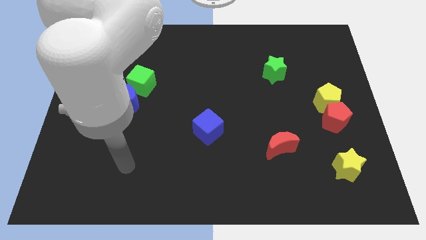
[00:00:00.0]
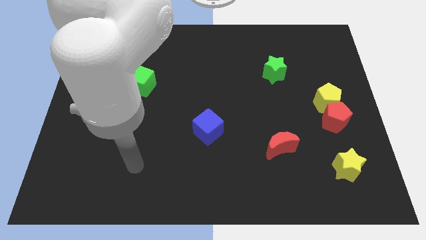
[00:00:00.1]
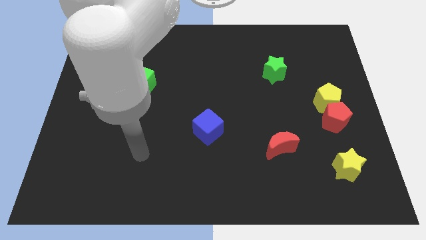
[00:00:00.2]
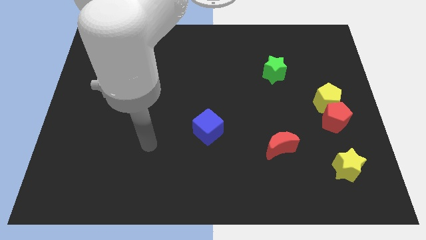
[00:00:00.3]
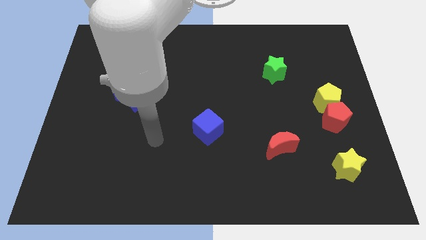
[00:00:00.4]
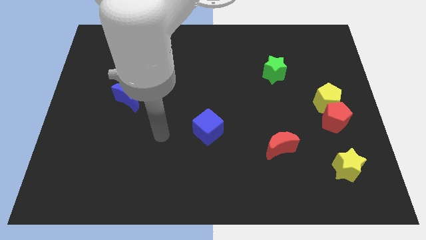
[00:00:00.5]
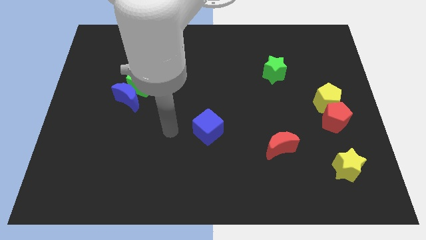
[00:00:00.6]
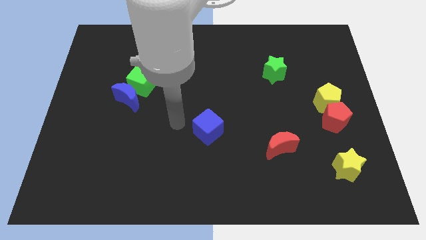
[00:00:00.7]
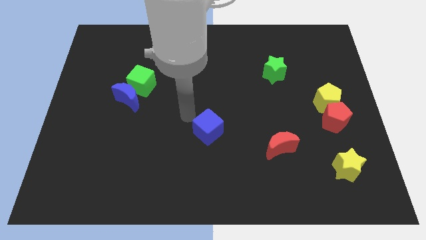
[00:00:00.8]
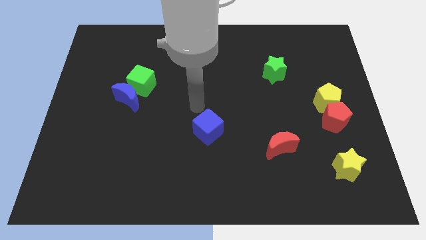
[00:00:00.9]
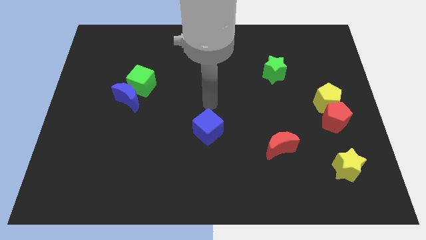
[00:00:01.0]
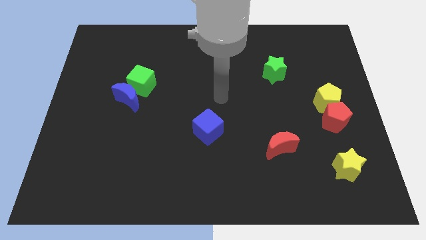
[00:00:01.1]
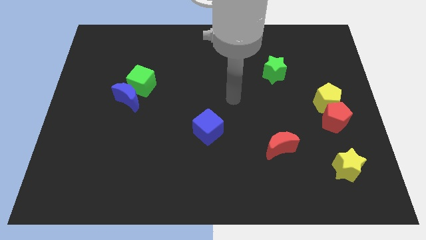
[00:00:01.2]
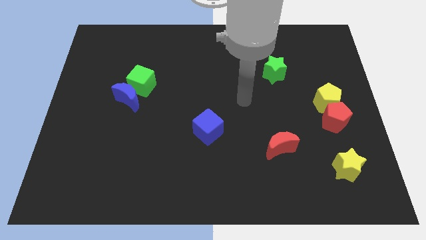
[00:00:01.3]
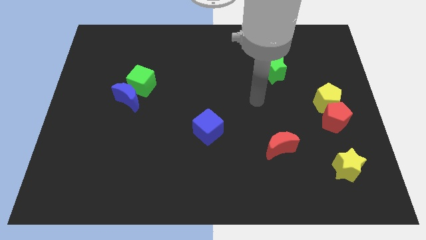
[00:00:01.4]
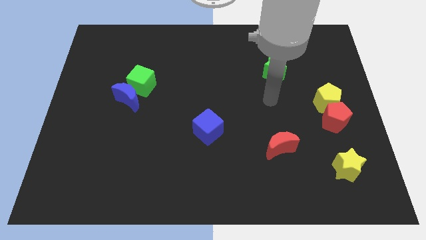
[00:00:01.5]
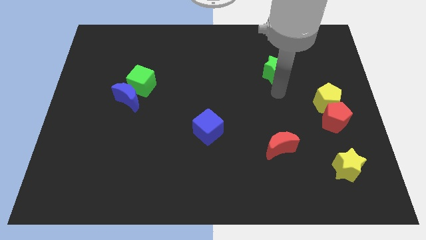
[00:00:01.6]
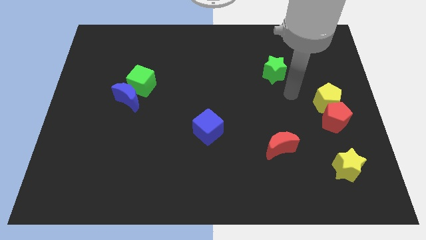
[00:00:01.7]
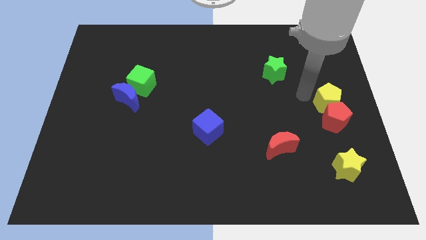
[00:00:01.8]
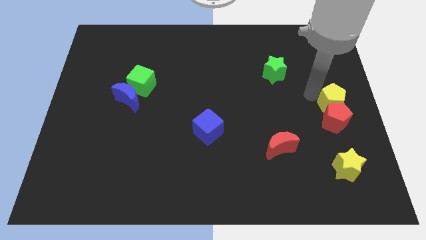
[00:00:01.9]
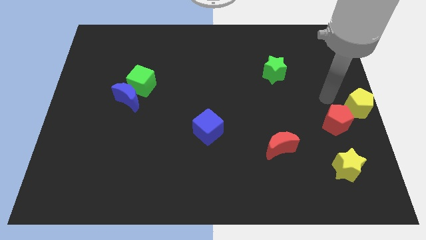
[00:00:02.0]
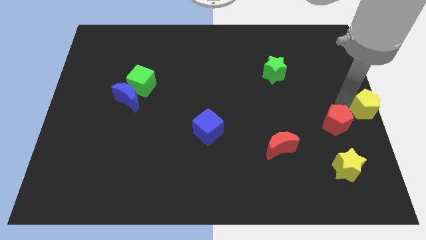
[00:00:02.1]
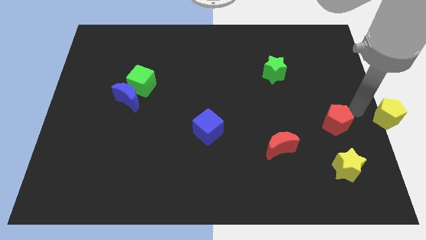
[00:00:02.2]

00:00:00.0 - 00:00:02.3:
pull the red pentagon apart from the yellow pentagon

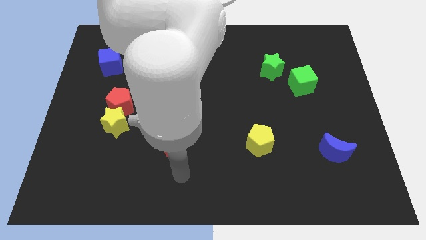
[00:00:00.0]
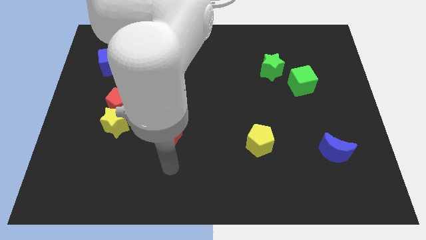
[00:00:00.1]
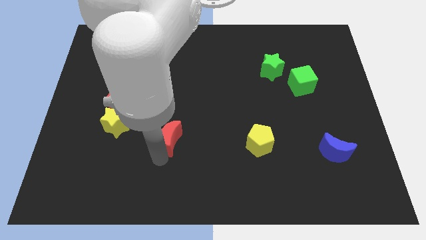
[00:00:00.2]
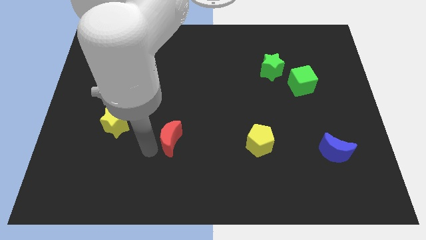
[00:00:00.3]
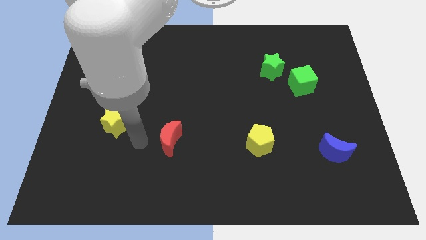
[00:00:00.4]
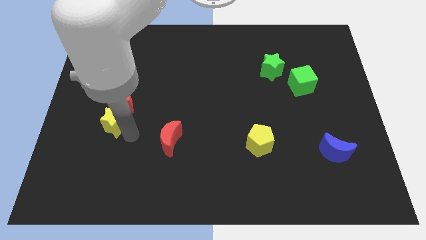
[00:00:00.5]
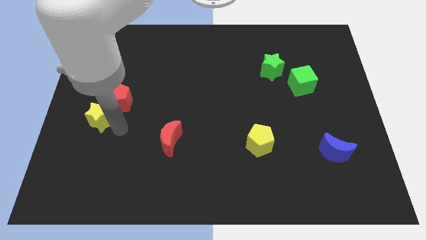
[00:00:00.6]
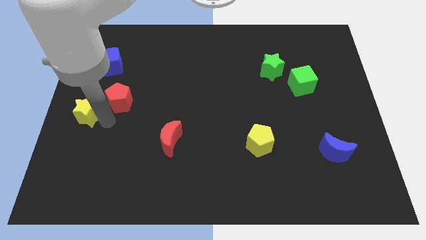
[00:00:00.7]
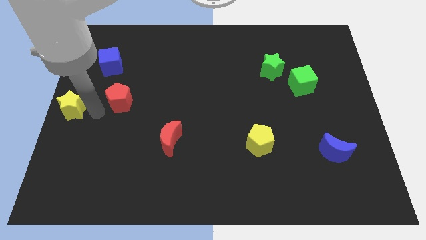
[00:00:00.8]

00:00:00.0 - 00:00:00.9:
separate the red pentagon from the yellow star

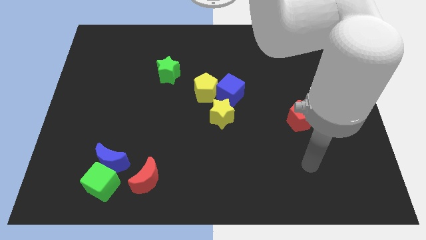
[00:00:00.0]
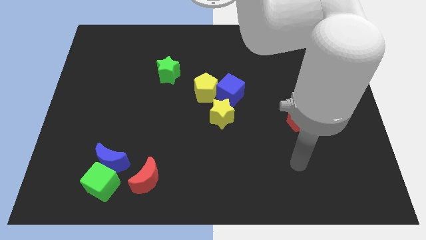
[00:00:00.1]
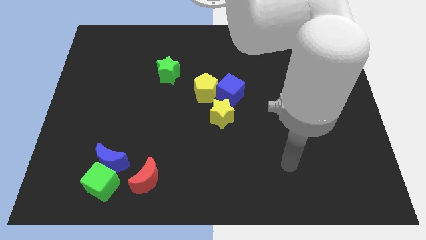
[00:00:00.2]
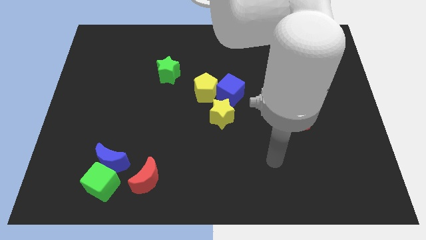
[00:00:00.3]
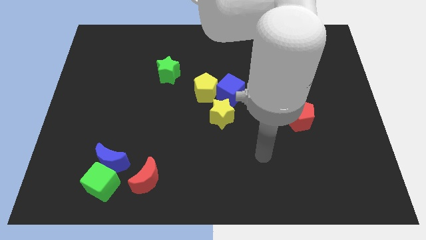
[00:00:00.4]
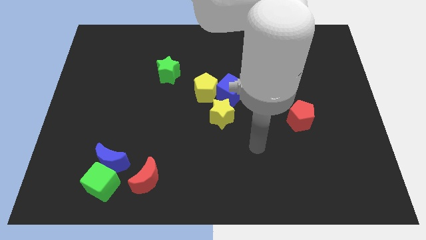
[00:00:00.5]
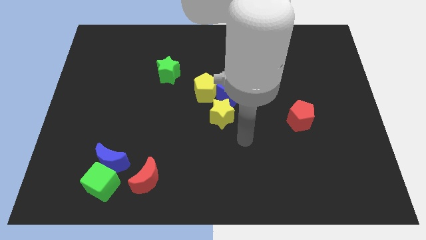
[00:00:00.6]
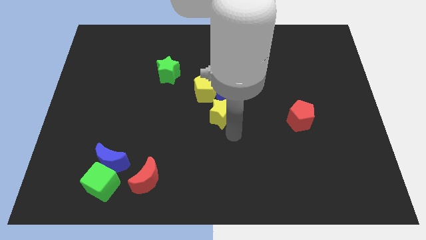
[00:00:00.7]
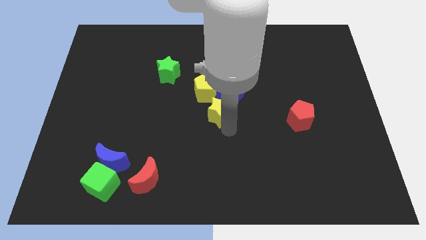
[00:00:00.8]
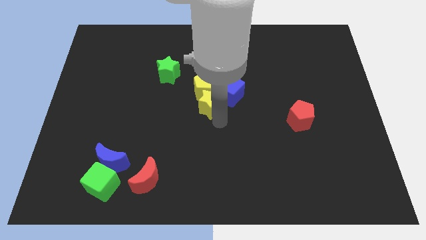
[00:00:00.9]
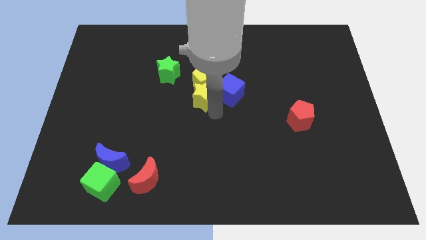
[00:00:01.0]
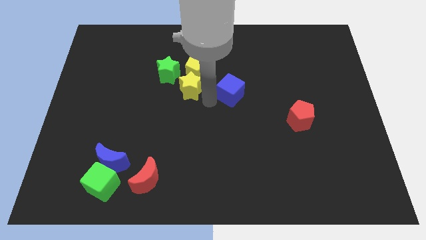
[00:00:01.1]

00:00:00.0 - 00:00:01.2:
move the blue cube away from the yellow pentagon and yellow star

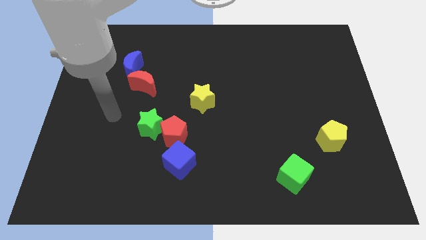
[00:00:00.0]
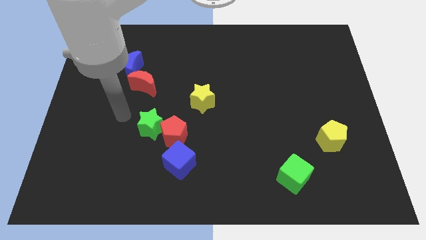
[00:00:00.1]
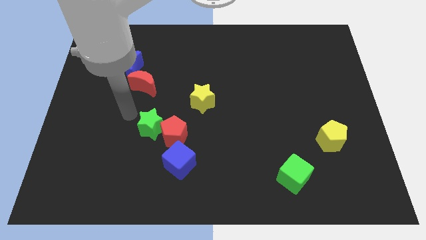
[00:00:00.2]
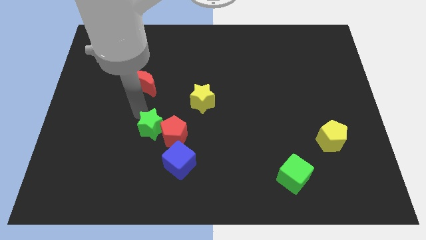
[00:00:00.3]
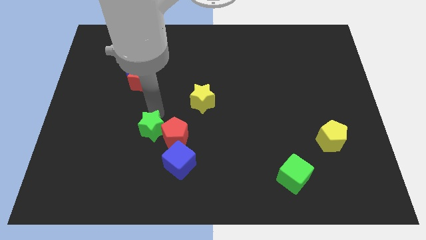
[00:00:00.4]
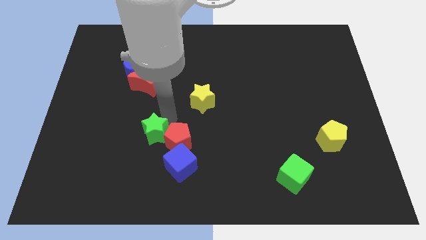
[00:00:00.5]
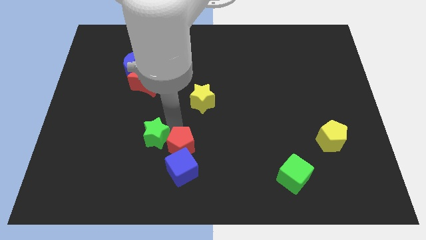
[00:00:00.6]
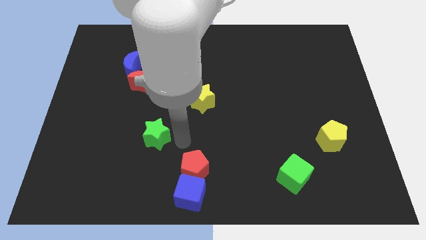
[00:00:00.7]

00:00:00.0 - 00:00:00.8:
separate the green star from the red pentagon

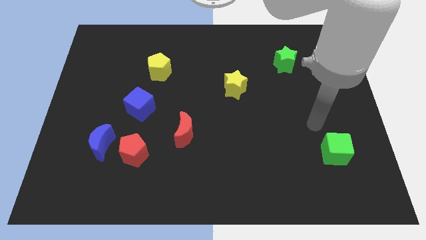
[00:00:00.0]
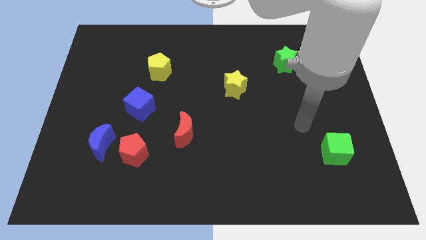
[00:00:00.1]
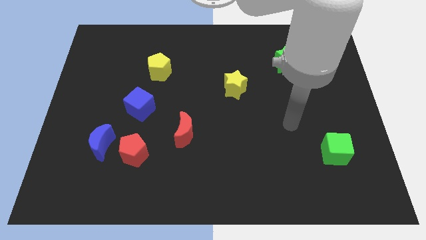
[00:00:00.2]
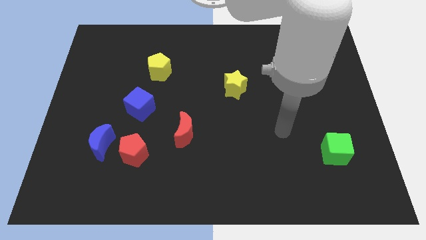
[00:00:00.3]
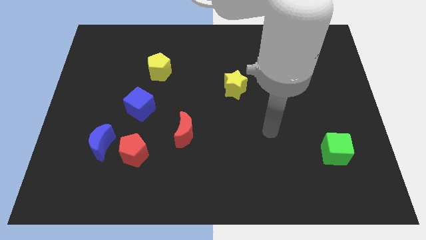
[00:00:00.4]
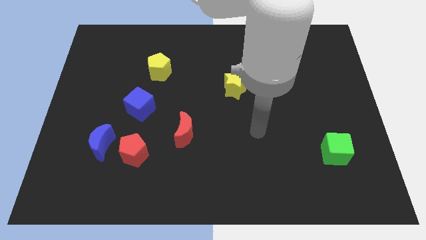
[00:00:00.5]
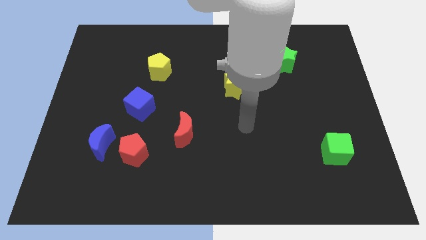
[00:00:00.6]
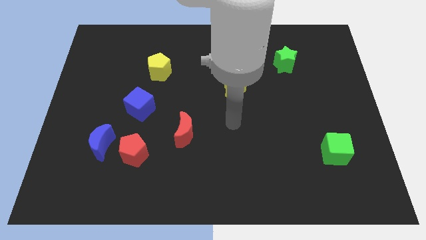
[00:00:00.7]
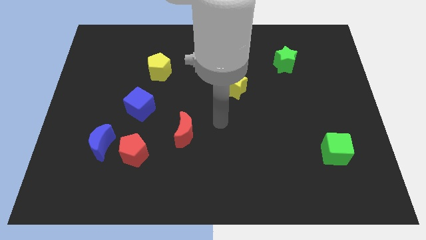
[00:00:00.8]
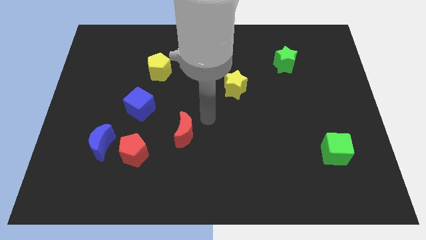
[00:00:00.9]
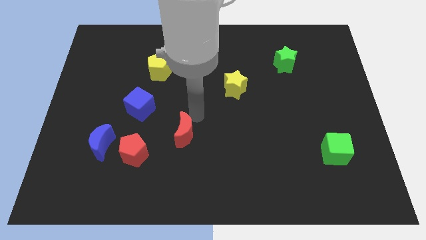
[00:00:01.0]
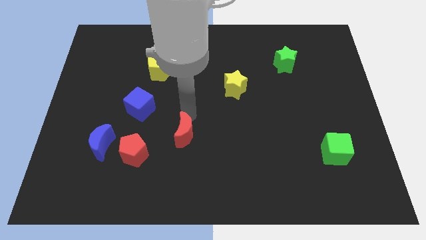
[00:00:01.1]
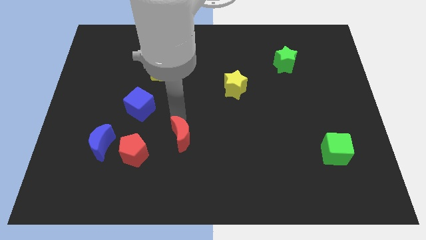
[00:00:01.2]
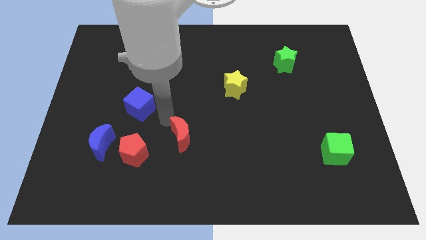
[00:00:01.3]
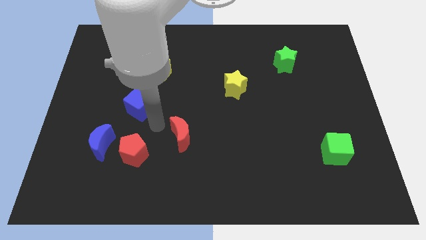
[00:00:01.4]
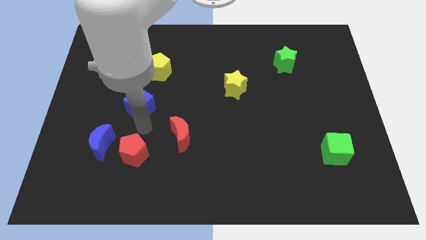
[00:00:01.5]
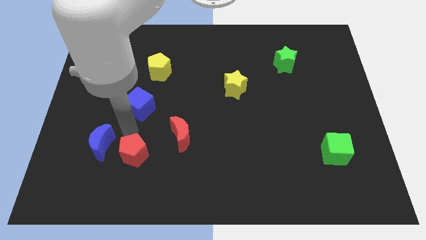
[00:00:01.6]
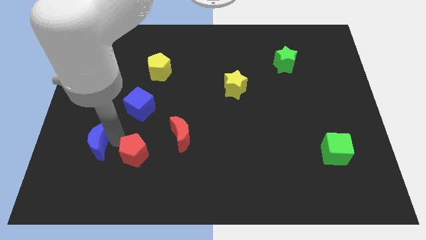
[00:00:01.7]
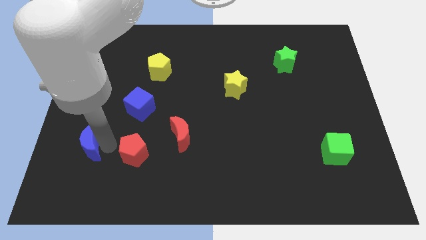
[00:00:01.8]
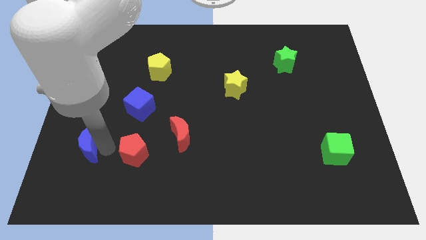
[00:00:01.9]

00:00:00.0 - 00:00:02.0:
move the red pentagon away from the blue moon

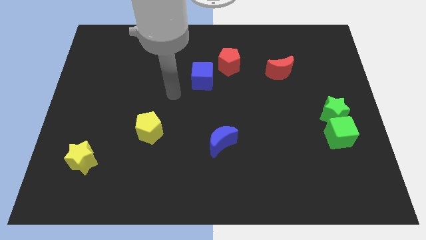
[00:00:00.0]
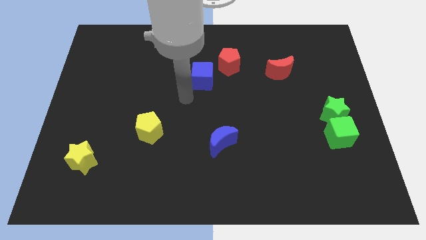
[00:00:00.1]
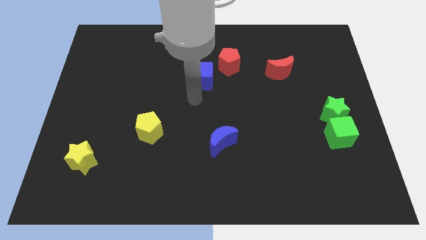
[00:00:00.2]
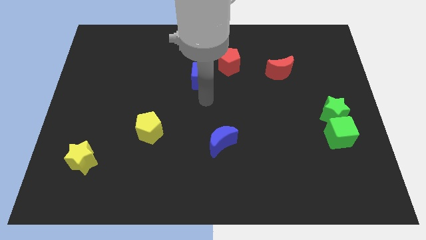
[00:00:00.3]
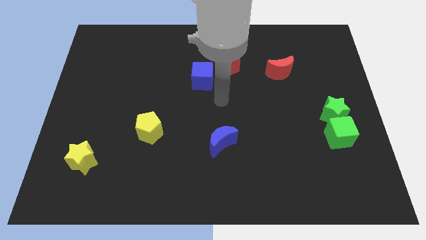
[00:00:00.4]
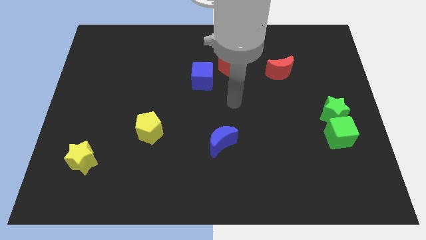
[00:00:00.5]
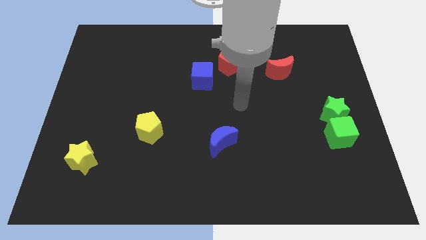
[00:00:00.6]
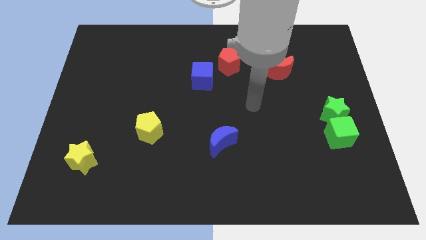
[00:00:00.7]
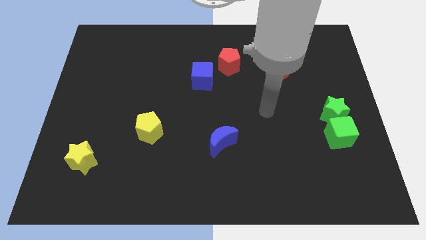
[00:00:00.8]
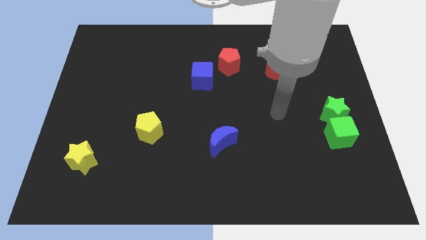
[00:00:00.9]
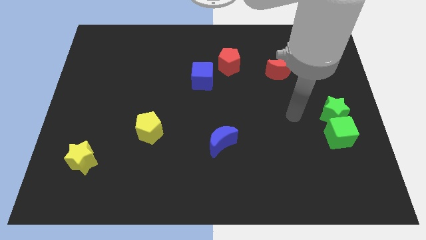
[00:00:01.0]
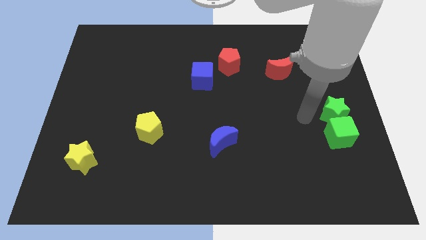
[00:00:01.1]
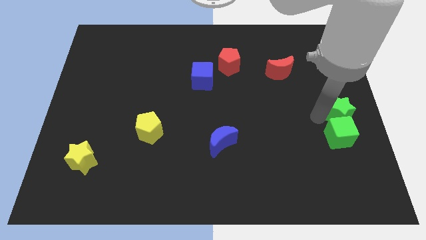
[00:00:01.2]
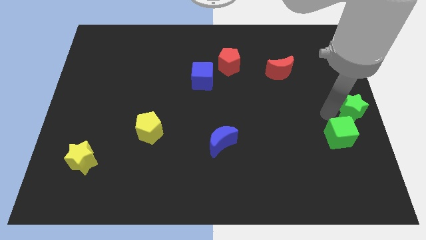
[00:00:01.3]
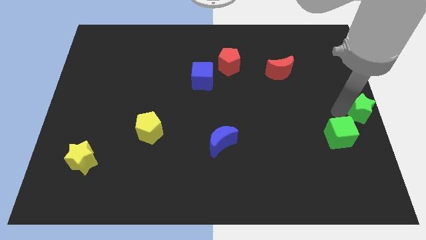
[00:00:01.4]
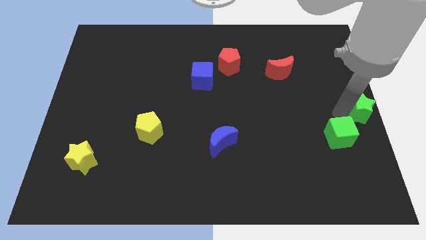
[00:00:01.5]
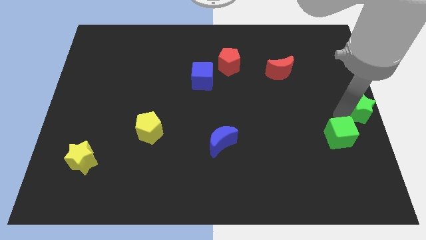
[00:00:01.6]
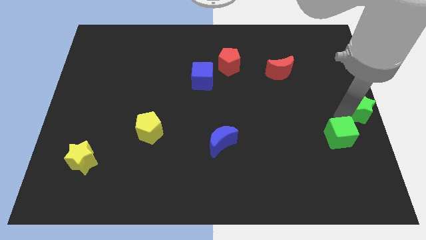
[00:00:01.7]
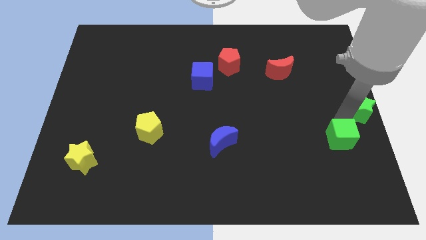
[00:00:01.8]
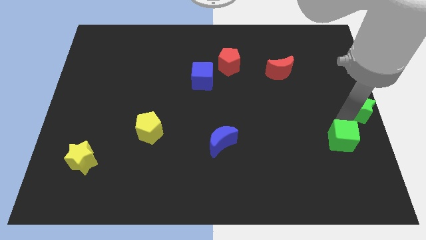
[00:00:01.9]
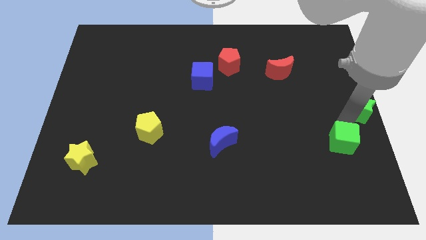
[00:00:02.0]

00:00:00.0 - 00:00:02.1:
separate the green cube from the green star
